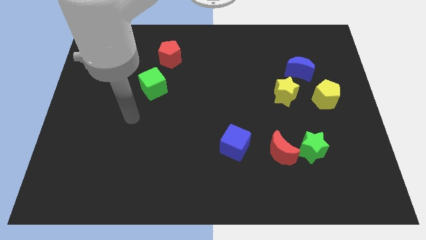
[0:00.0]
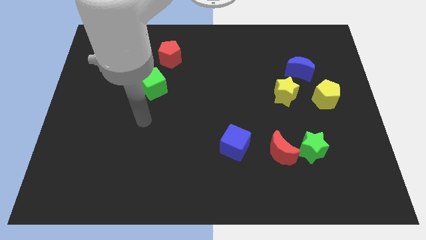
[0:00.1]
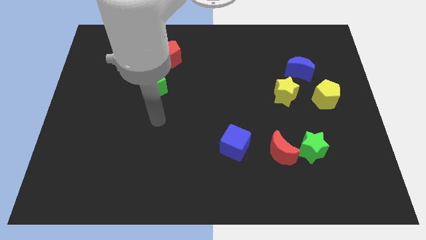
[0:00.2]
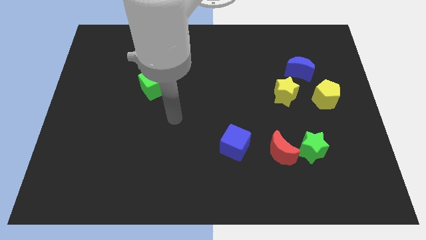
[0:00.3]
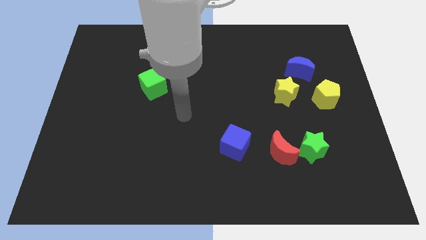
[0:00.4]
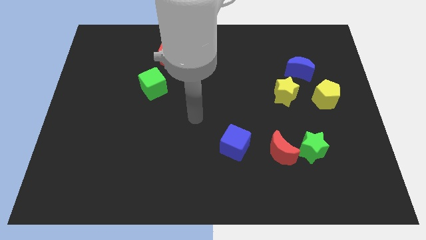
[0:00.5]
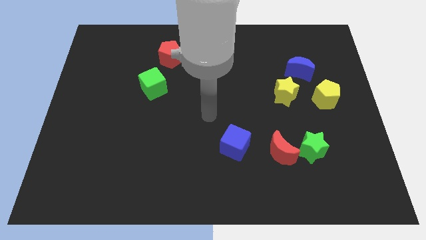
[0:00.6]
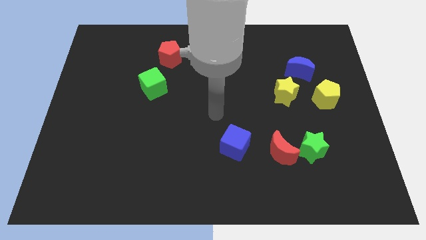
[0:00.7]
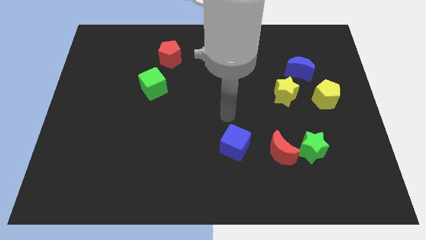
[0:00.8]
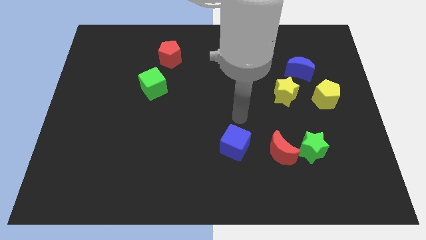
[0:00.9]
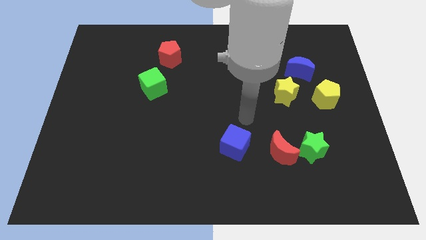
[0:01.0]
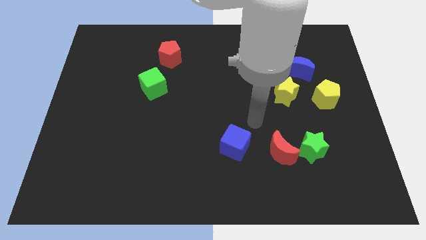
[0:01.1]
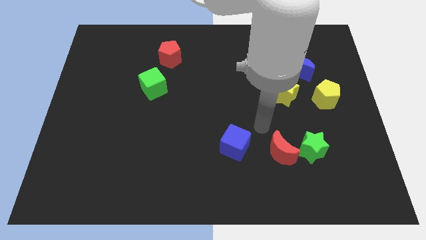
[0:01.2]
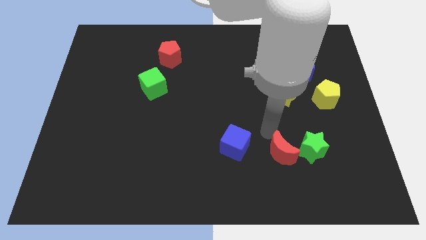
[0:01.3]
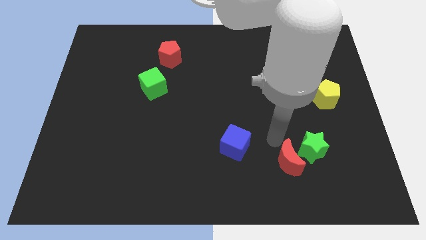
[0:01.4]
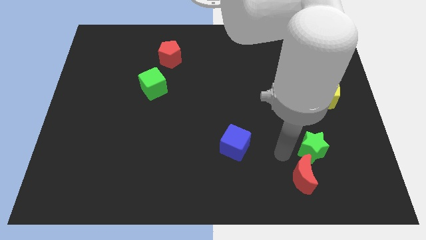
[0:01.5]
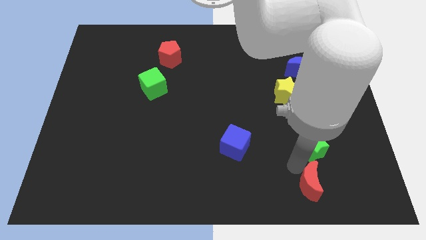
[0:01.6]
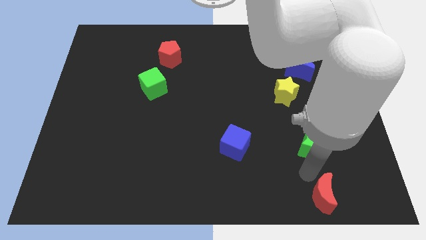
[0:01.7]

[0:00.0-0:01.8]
pull the green star apart from the red moon

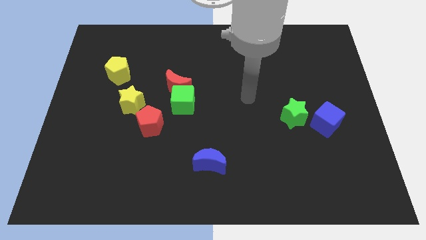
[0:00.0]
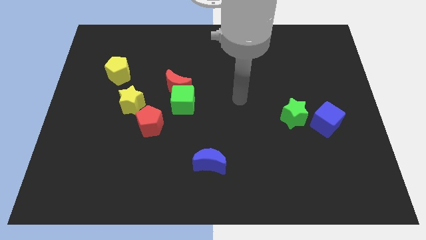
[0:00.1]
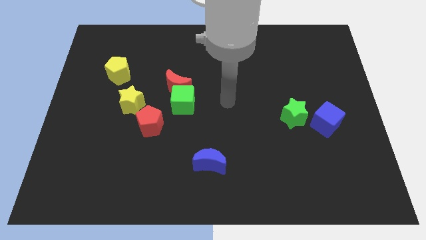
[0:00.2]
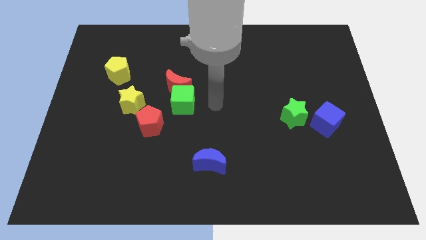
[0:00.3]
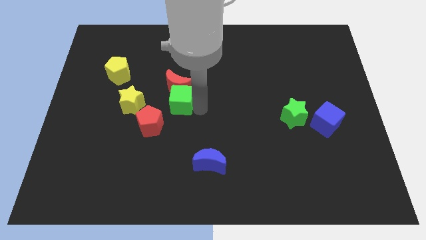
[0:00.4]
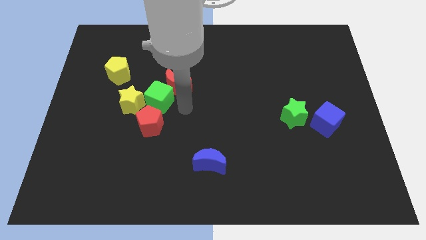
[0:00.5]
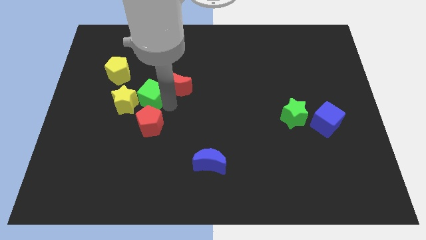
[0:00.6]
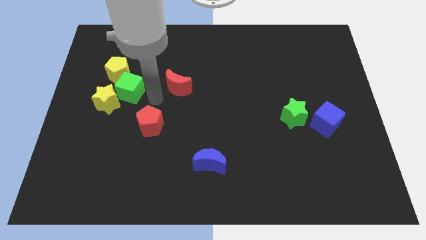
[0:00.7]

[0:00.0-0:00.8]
separate the red moon from the green cube

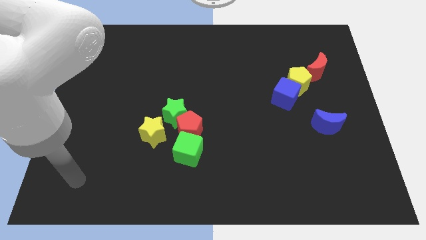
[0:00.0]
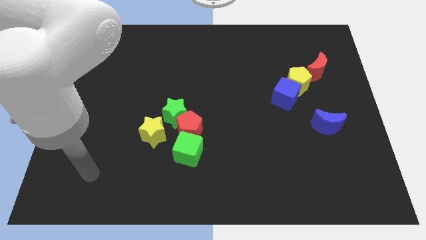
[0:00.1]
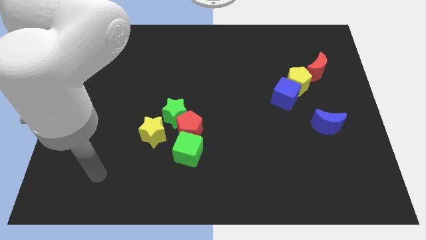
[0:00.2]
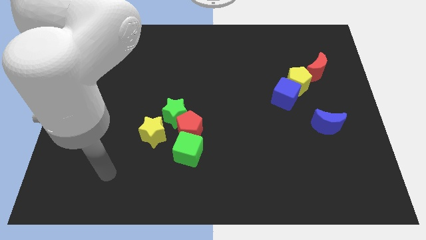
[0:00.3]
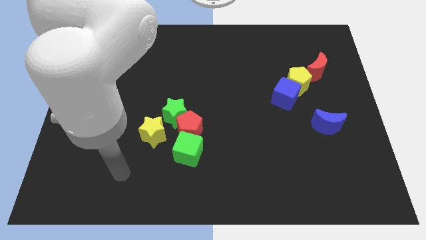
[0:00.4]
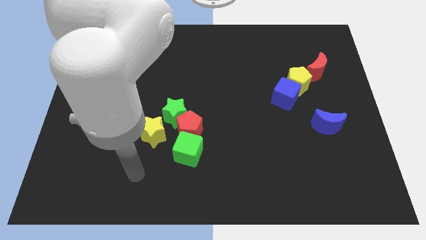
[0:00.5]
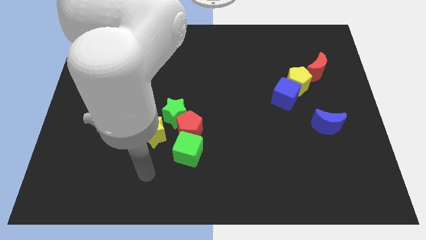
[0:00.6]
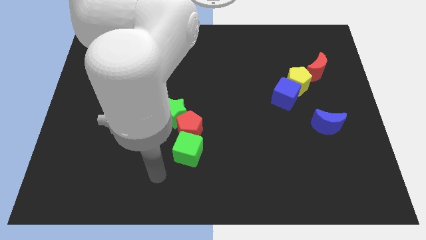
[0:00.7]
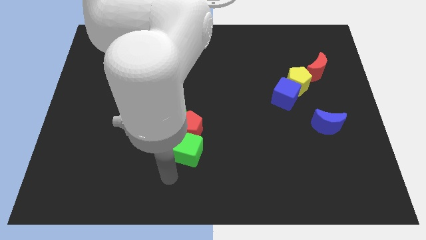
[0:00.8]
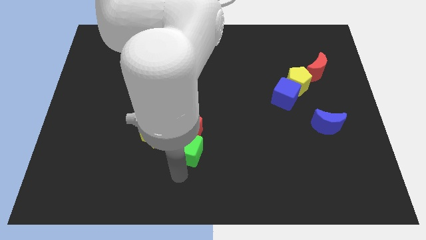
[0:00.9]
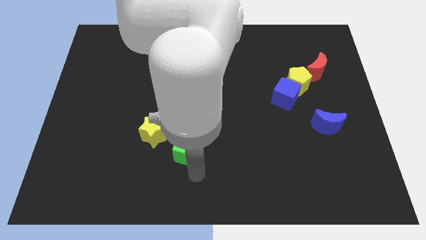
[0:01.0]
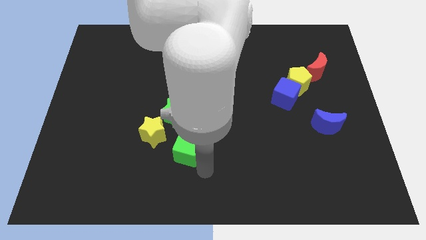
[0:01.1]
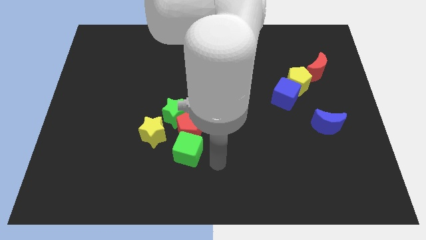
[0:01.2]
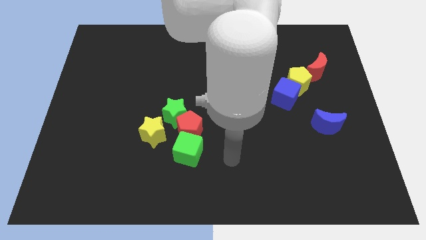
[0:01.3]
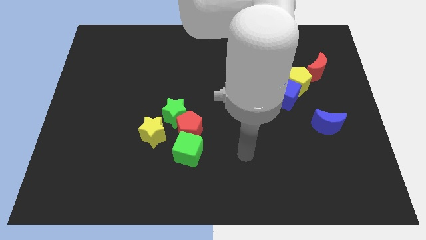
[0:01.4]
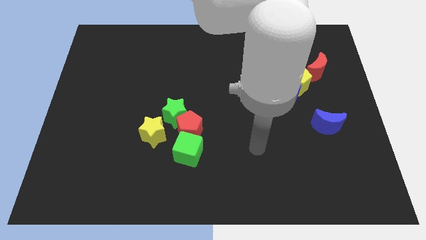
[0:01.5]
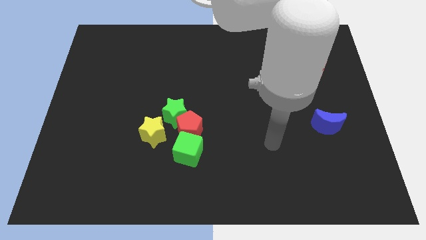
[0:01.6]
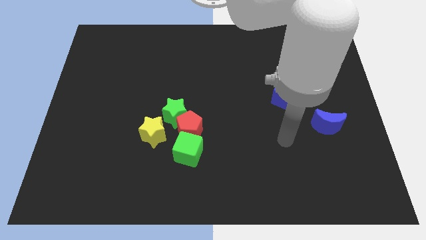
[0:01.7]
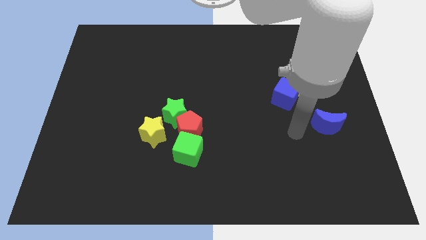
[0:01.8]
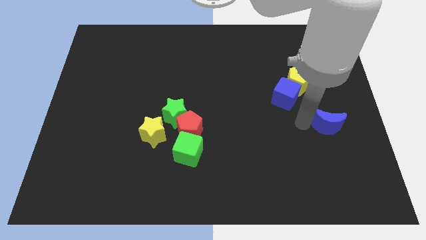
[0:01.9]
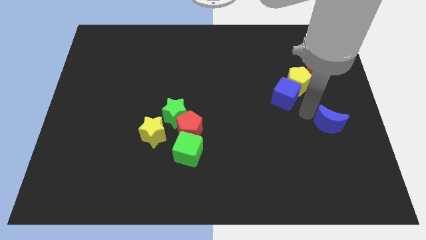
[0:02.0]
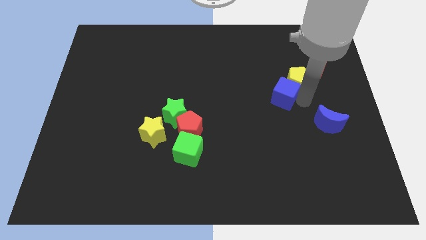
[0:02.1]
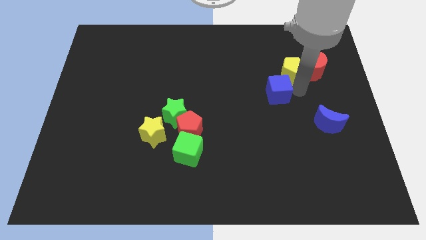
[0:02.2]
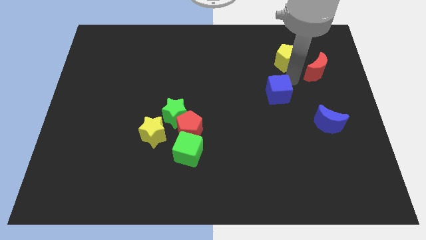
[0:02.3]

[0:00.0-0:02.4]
pull the blue cube apart from the yellow pentagon

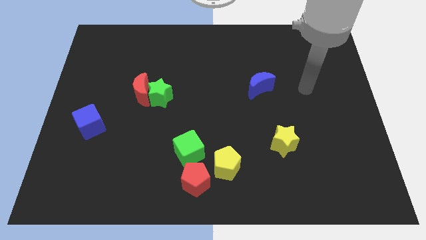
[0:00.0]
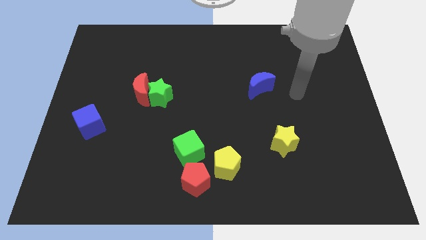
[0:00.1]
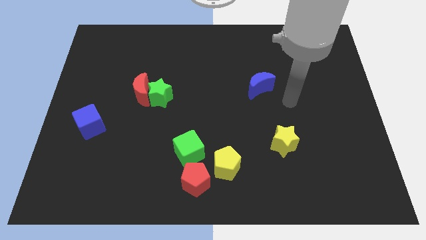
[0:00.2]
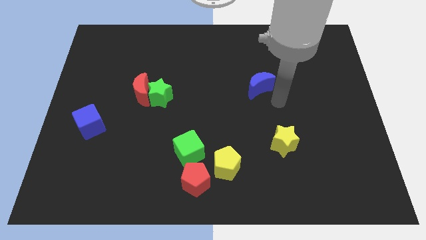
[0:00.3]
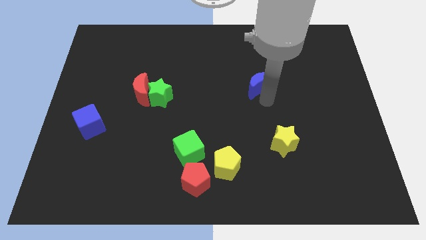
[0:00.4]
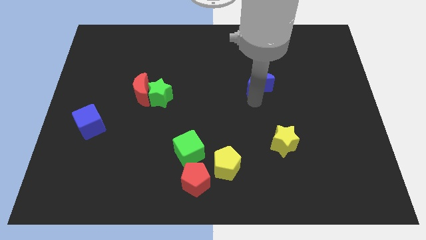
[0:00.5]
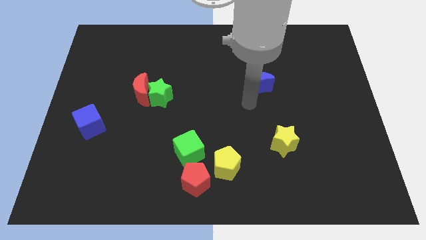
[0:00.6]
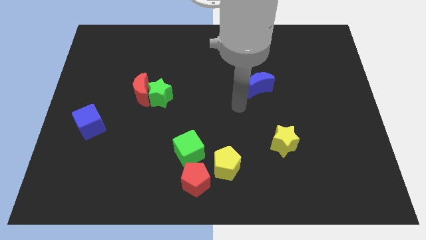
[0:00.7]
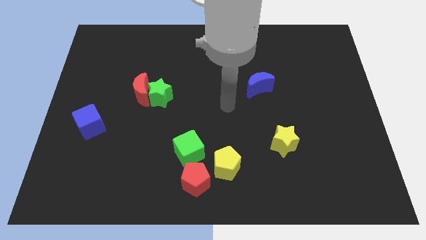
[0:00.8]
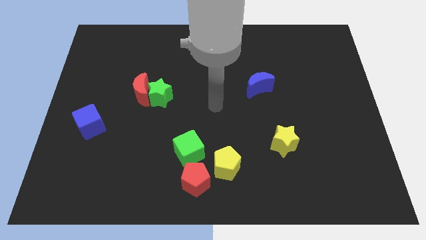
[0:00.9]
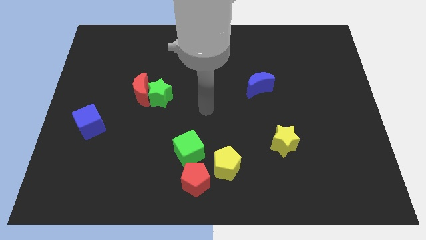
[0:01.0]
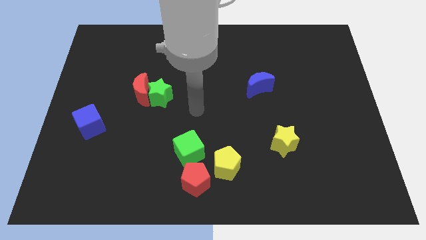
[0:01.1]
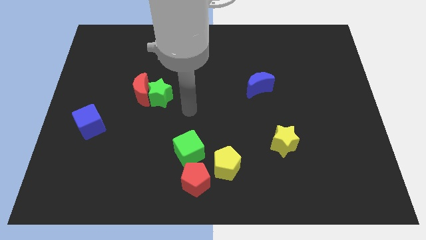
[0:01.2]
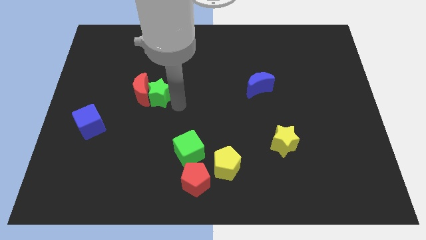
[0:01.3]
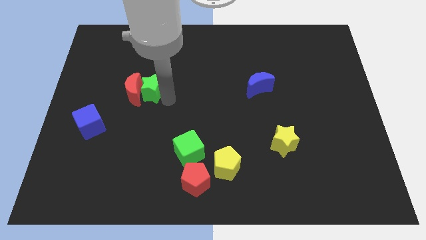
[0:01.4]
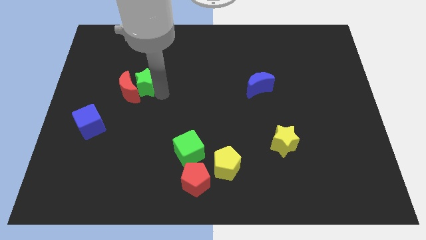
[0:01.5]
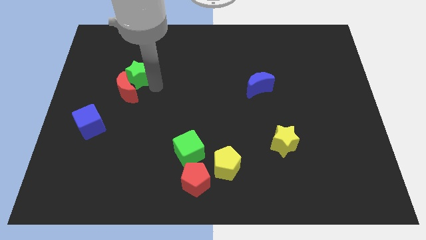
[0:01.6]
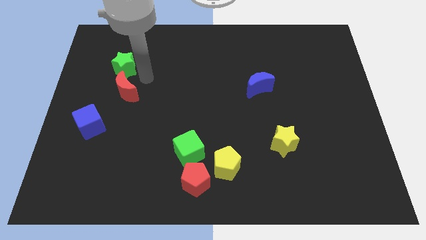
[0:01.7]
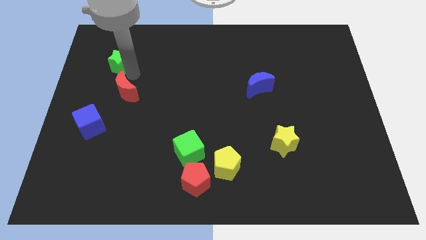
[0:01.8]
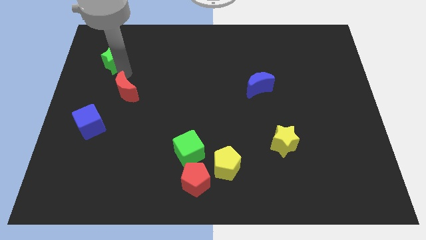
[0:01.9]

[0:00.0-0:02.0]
pull the red moon apart from the green star

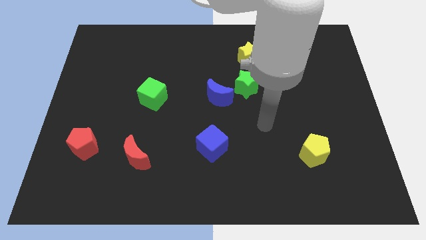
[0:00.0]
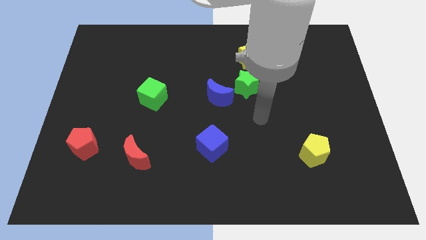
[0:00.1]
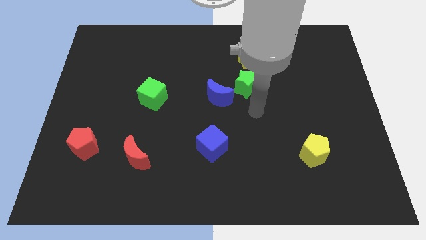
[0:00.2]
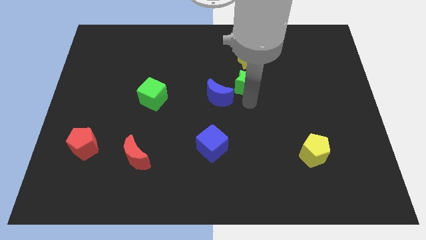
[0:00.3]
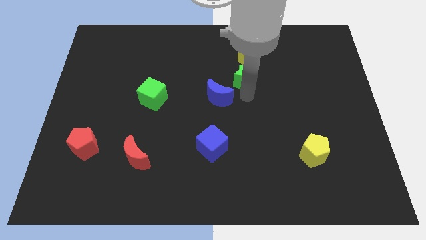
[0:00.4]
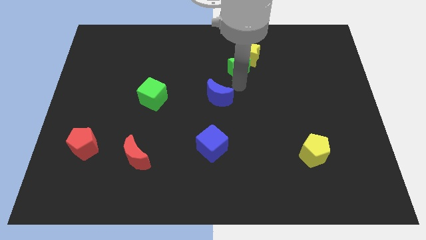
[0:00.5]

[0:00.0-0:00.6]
separate the blue moon from the green star

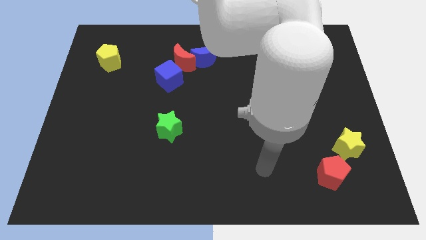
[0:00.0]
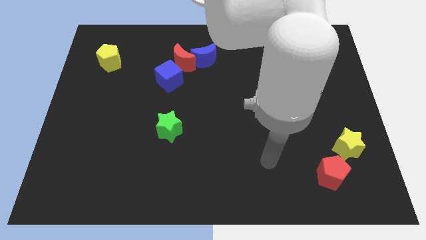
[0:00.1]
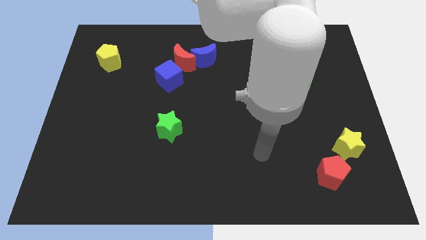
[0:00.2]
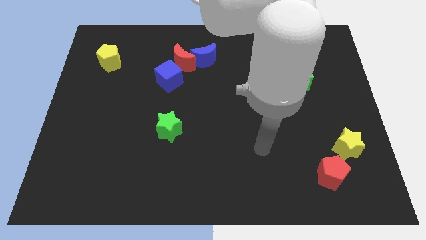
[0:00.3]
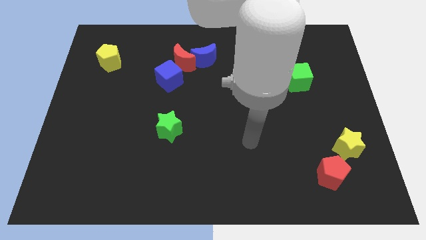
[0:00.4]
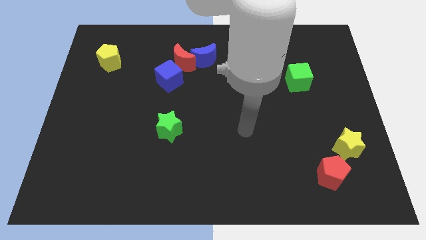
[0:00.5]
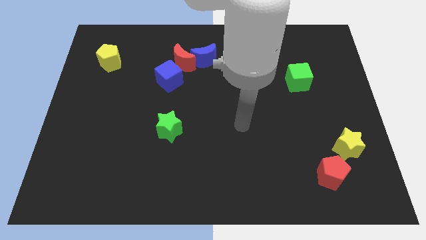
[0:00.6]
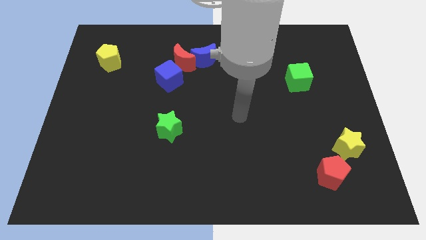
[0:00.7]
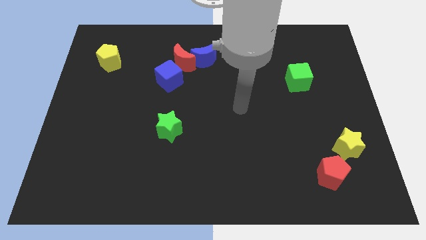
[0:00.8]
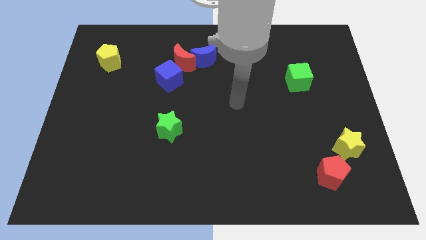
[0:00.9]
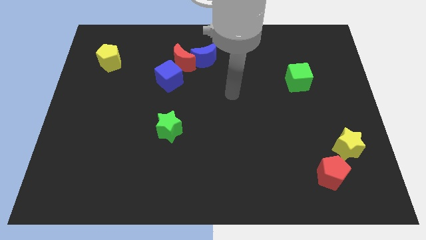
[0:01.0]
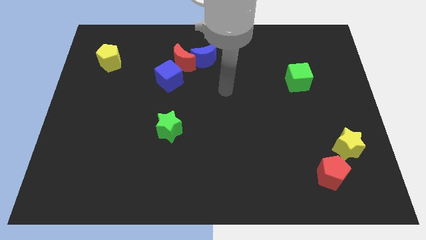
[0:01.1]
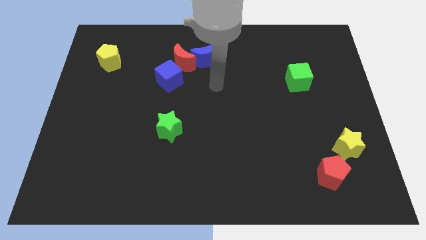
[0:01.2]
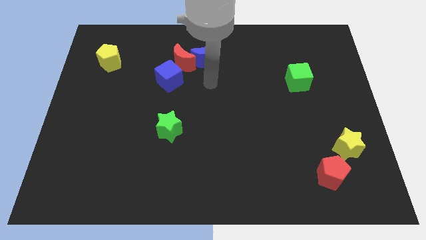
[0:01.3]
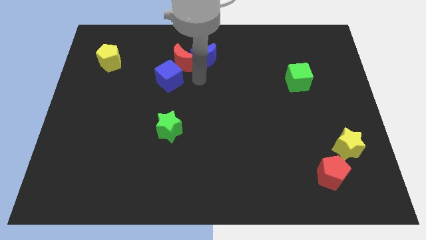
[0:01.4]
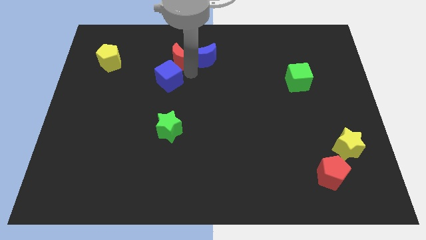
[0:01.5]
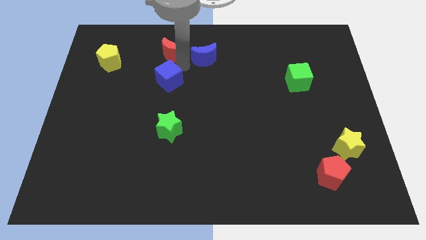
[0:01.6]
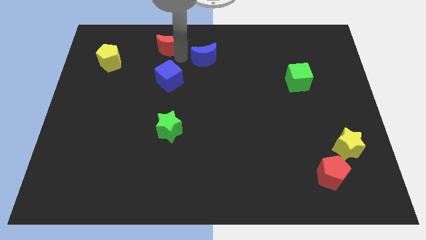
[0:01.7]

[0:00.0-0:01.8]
separate the blue moon from the red moon
